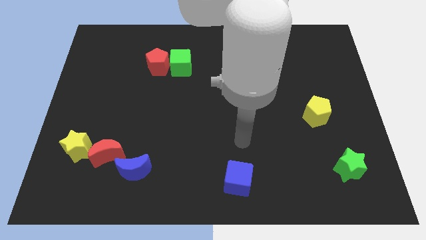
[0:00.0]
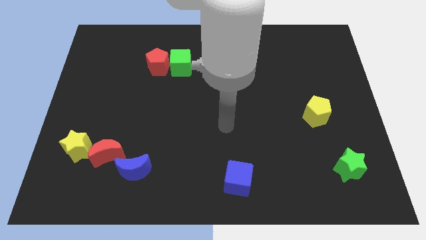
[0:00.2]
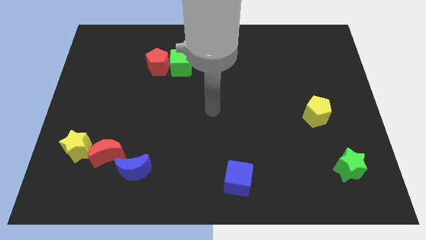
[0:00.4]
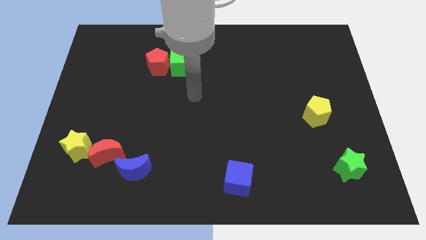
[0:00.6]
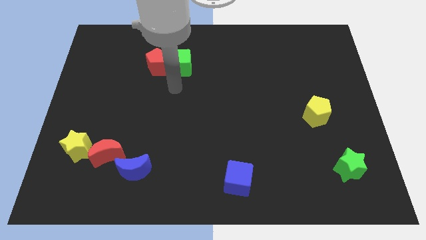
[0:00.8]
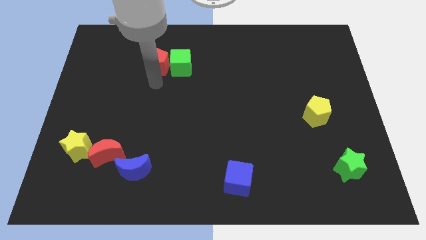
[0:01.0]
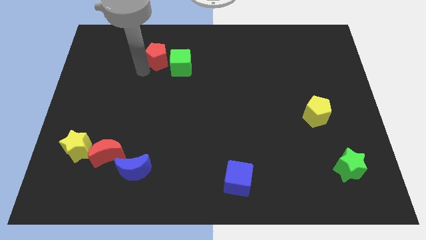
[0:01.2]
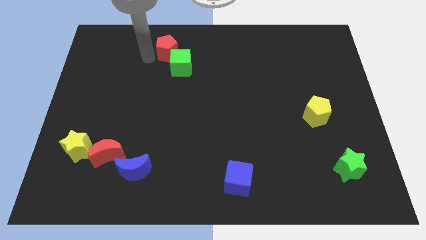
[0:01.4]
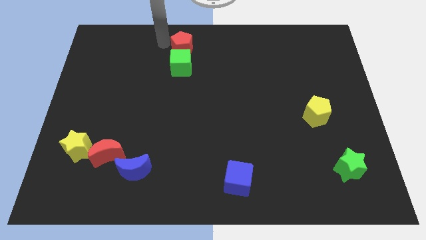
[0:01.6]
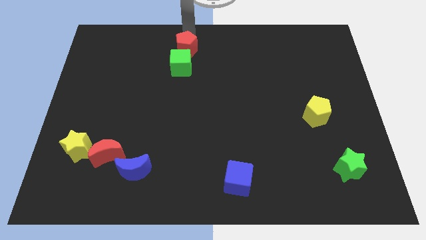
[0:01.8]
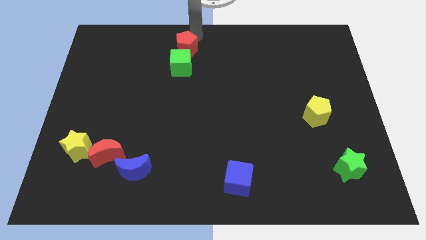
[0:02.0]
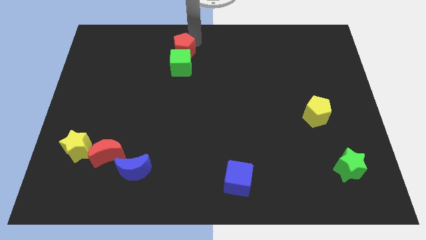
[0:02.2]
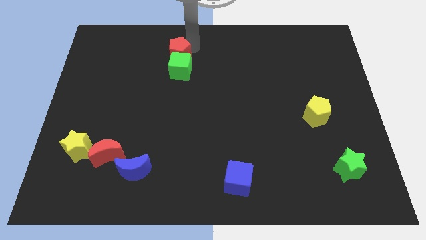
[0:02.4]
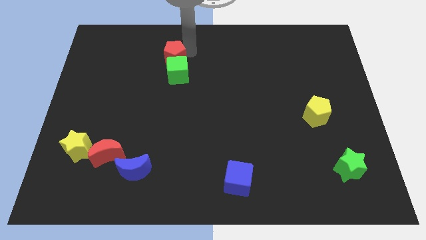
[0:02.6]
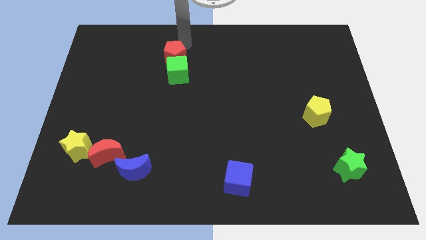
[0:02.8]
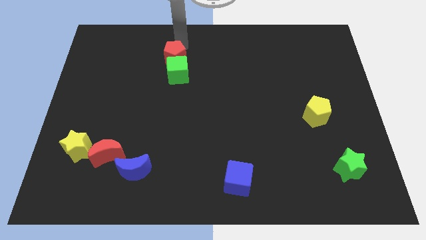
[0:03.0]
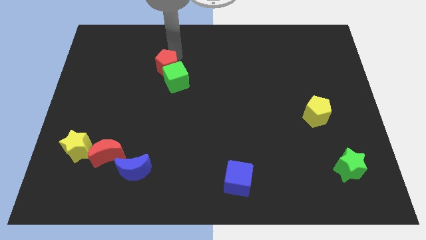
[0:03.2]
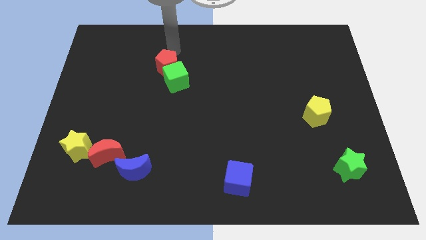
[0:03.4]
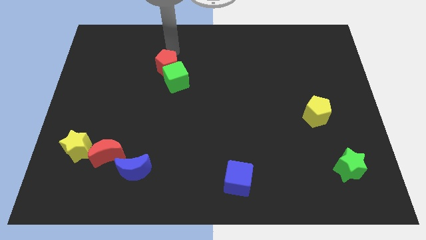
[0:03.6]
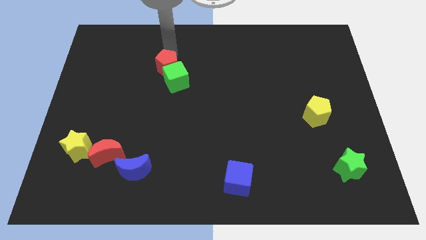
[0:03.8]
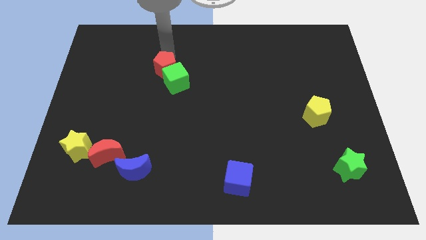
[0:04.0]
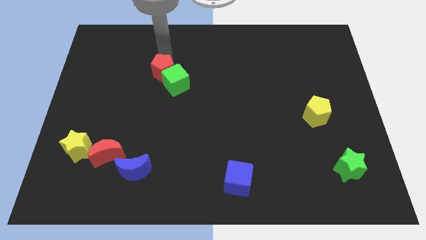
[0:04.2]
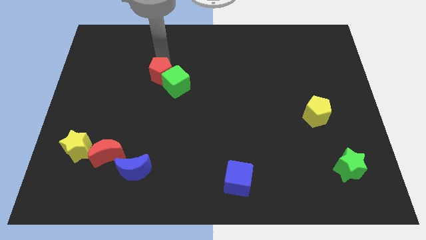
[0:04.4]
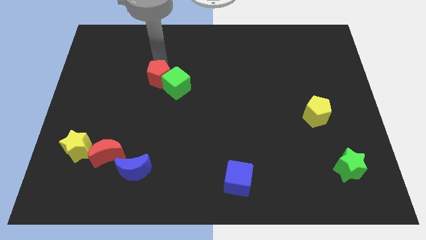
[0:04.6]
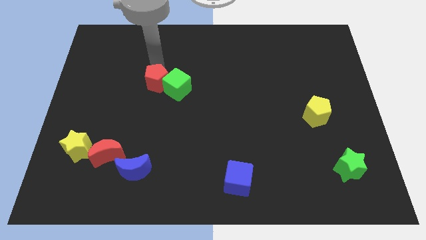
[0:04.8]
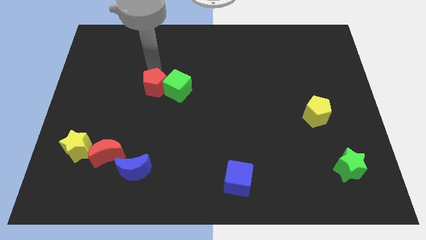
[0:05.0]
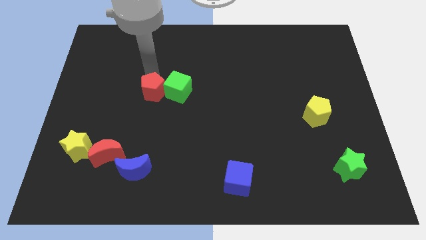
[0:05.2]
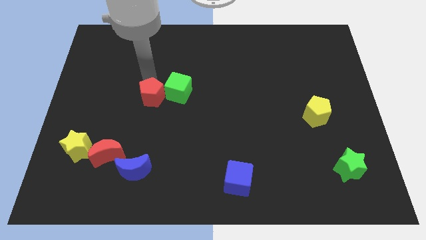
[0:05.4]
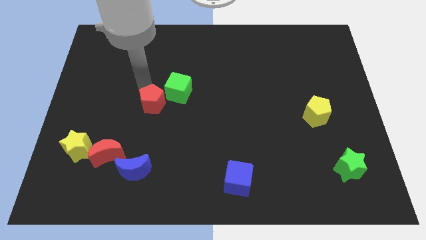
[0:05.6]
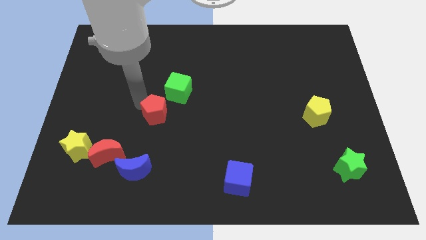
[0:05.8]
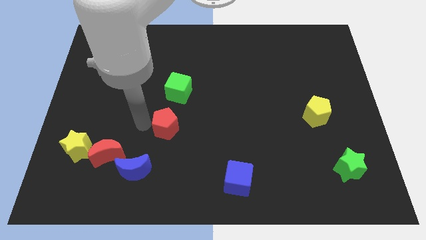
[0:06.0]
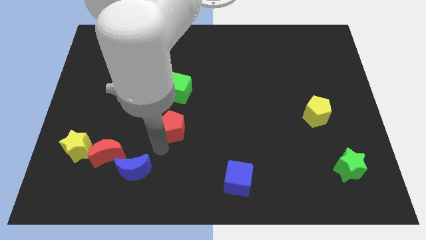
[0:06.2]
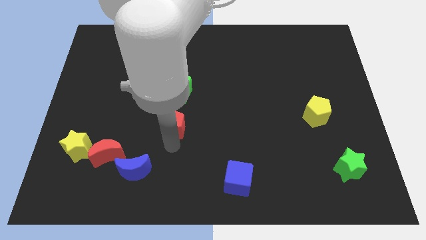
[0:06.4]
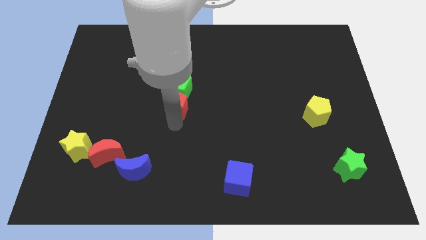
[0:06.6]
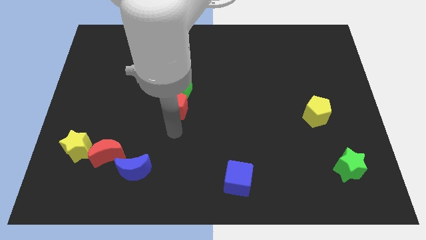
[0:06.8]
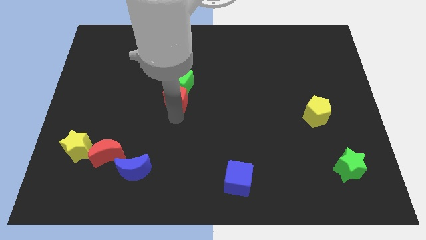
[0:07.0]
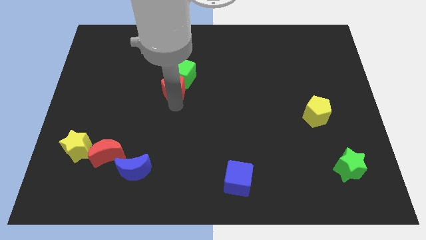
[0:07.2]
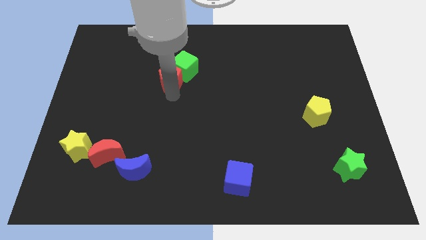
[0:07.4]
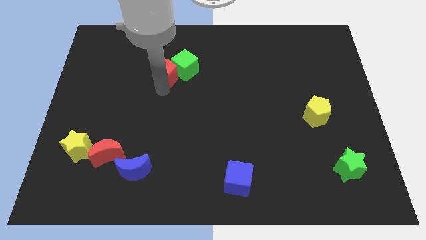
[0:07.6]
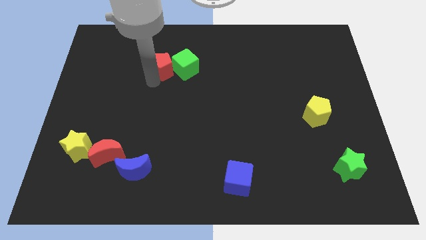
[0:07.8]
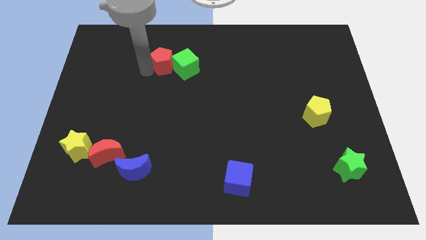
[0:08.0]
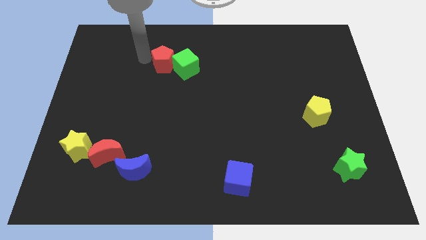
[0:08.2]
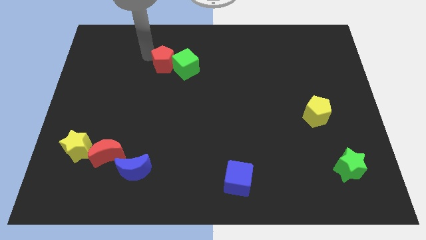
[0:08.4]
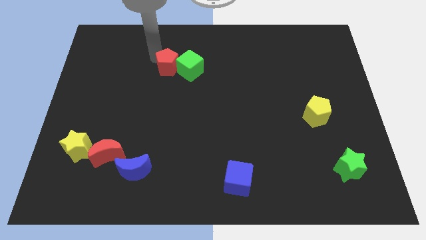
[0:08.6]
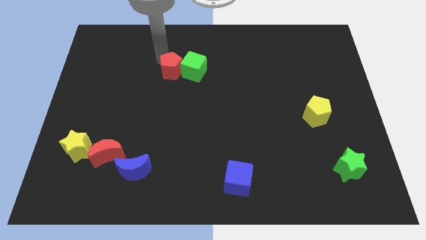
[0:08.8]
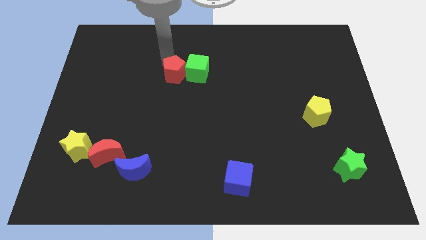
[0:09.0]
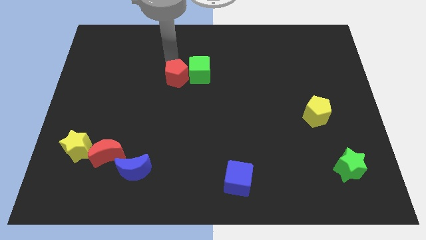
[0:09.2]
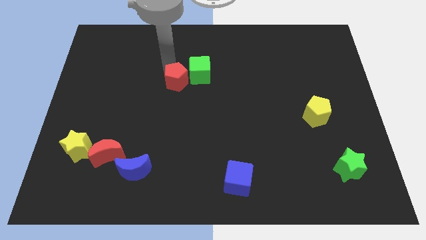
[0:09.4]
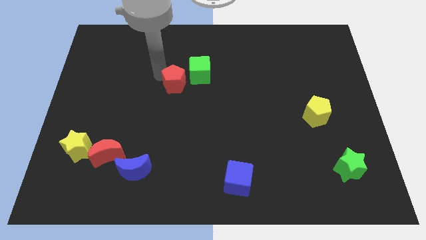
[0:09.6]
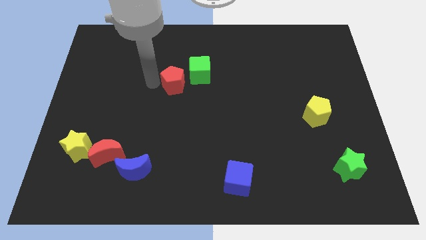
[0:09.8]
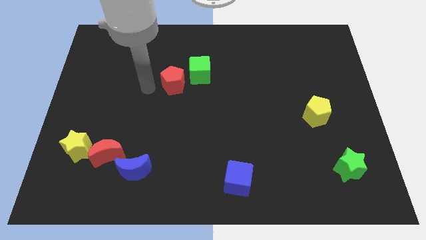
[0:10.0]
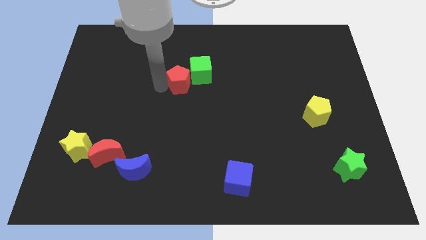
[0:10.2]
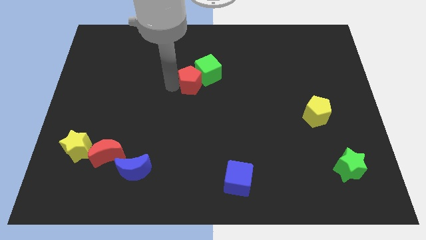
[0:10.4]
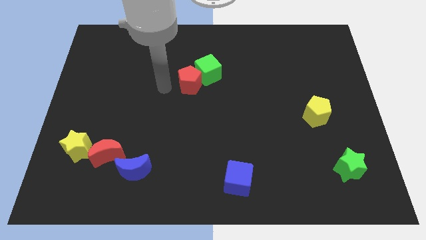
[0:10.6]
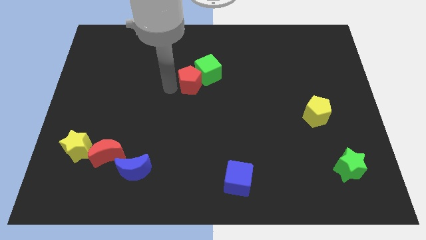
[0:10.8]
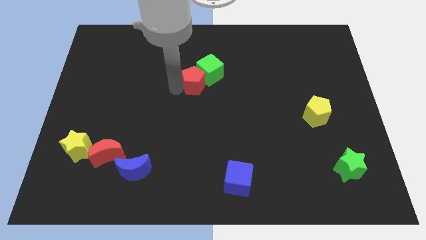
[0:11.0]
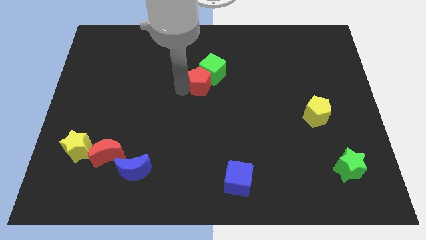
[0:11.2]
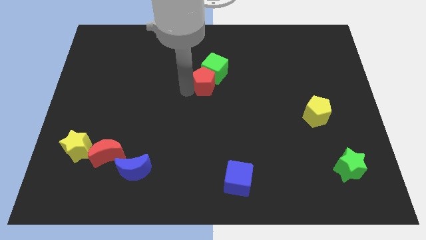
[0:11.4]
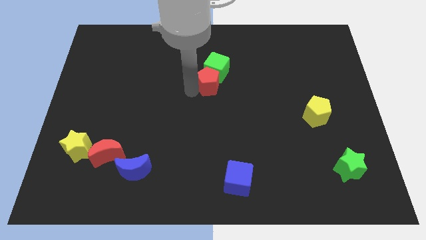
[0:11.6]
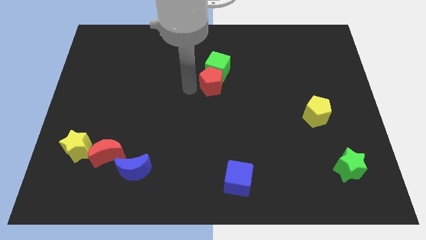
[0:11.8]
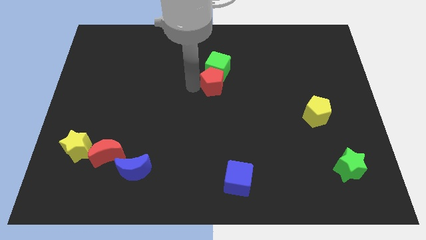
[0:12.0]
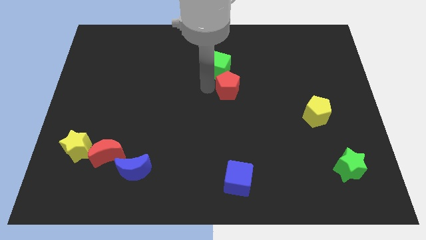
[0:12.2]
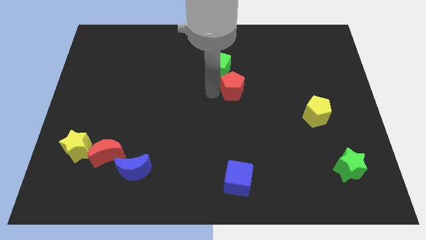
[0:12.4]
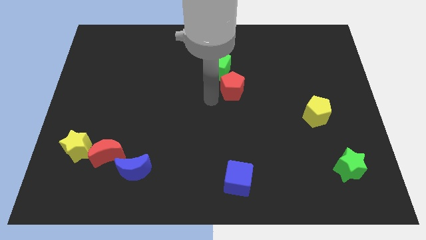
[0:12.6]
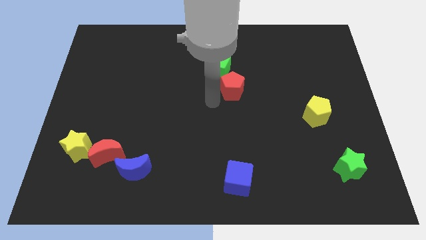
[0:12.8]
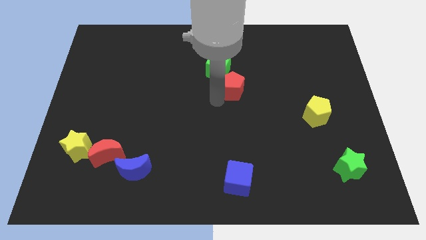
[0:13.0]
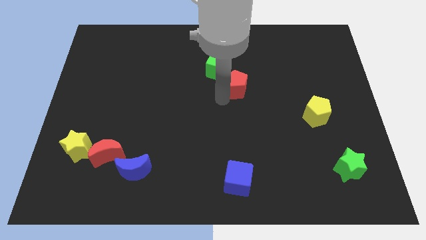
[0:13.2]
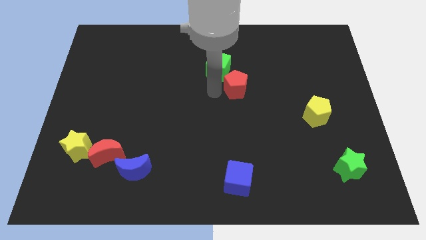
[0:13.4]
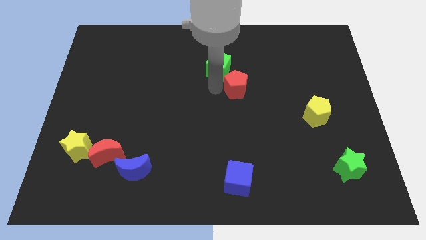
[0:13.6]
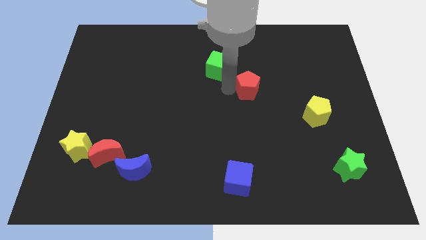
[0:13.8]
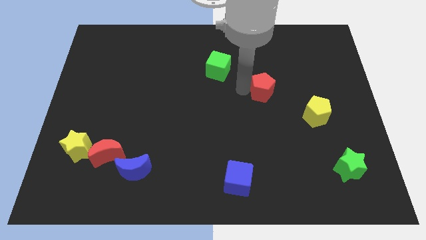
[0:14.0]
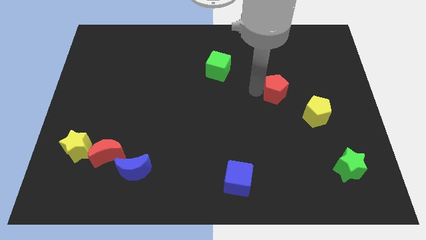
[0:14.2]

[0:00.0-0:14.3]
push the red pentagon diagonally up and to the left of the yellow pentagon
